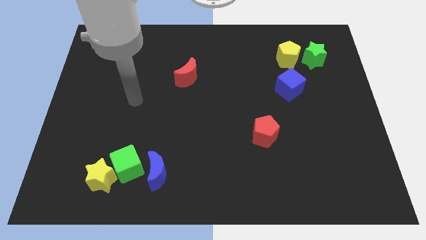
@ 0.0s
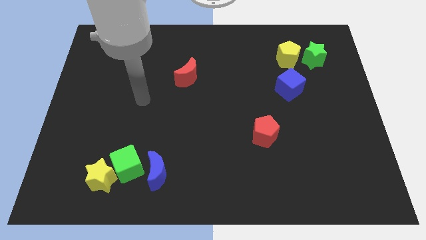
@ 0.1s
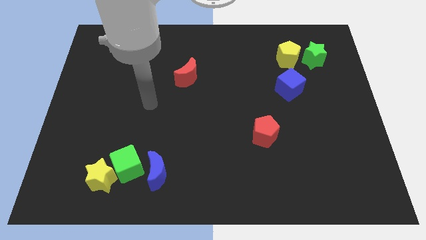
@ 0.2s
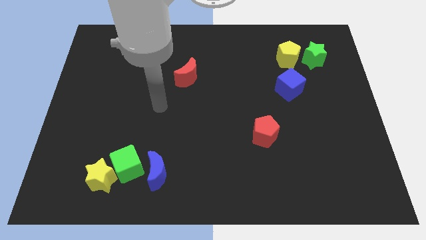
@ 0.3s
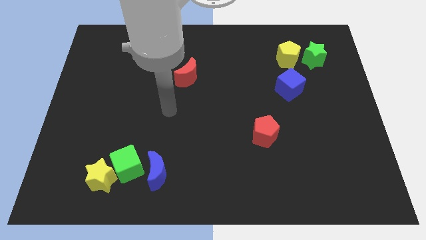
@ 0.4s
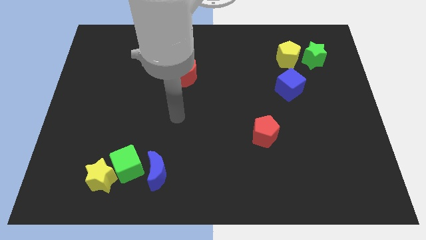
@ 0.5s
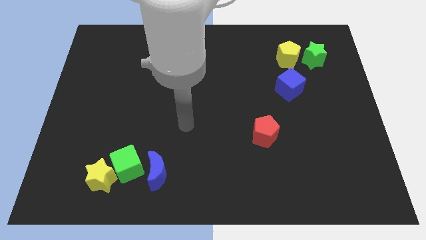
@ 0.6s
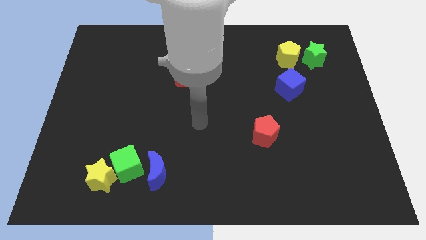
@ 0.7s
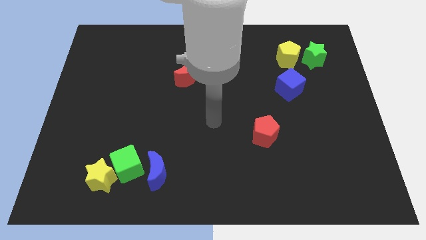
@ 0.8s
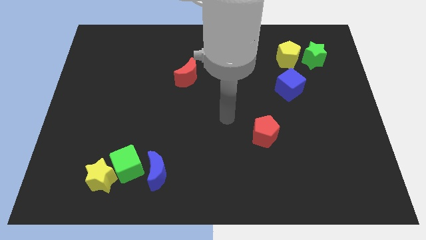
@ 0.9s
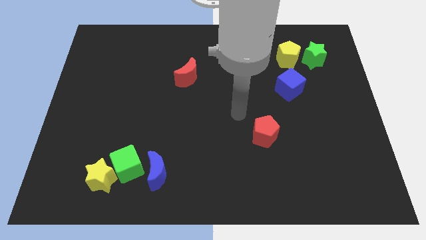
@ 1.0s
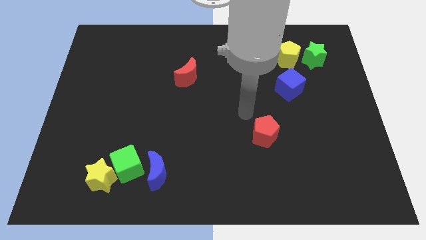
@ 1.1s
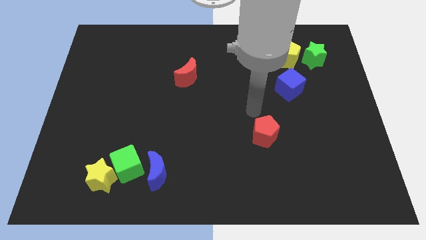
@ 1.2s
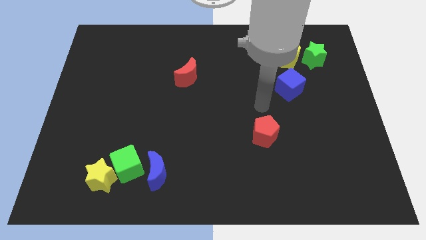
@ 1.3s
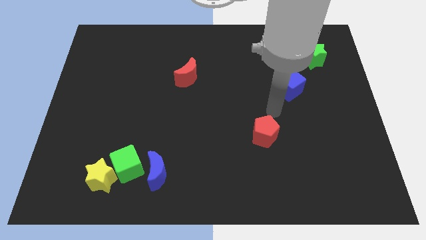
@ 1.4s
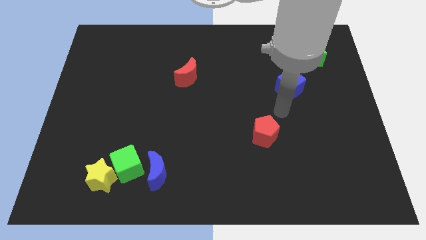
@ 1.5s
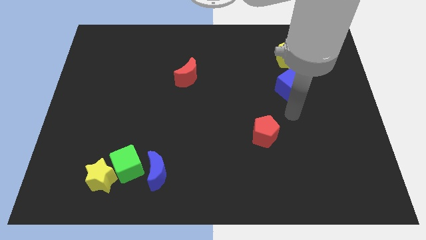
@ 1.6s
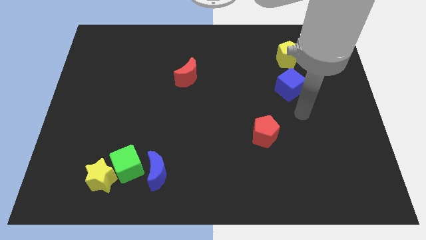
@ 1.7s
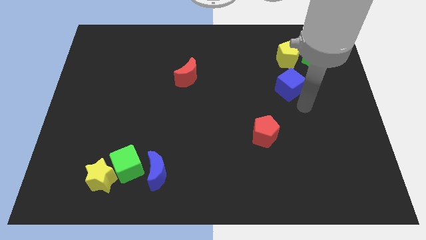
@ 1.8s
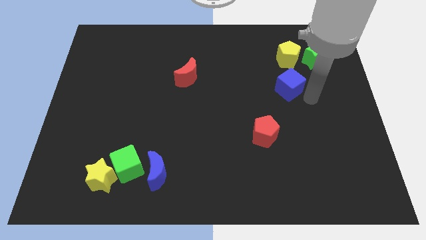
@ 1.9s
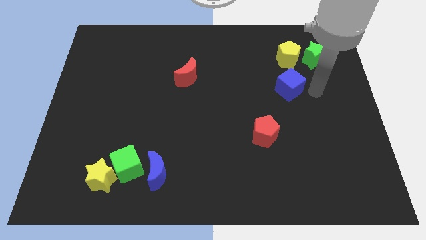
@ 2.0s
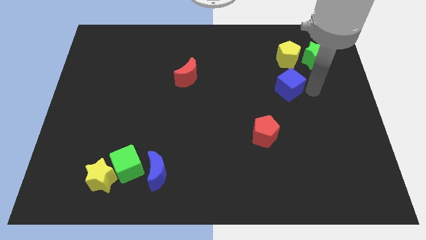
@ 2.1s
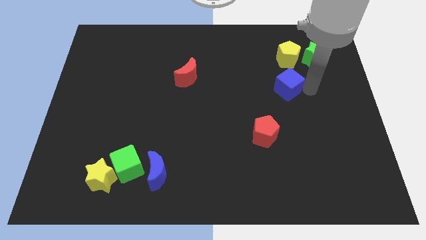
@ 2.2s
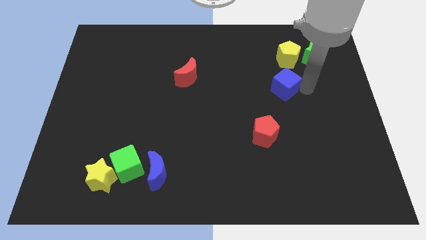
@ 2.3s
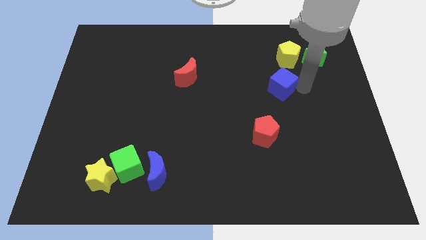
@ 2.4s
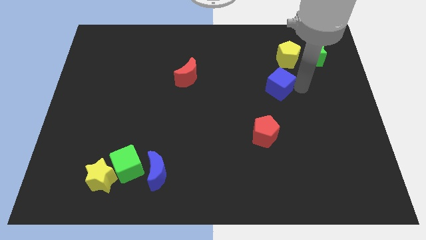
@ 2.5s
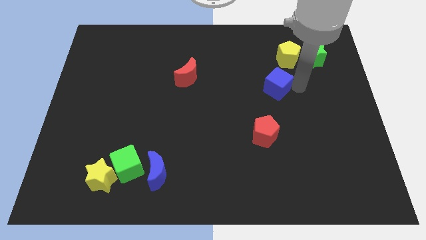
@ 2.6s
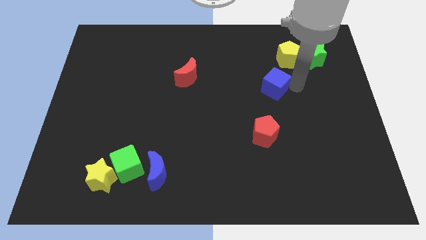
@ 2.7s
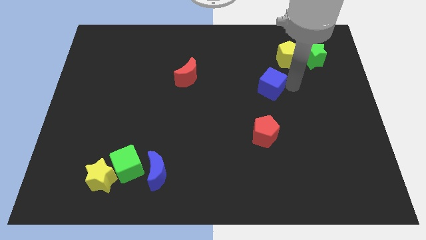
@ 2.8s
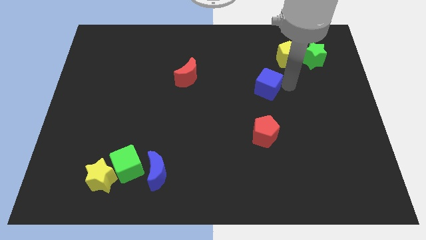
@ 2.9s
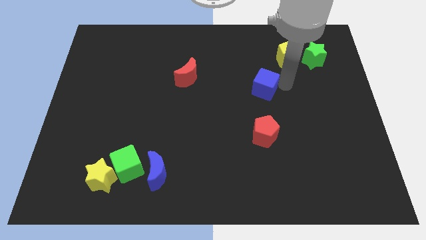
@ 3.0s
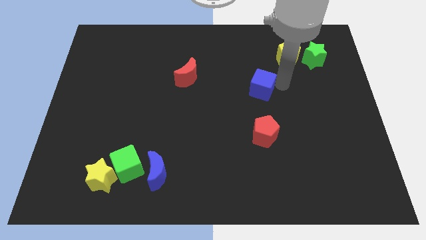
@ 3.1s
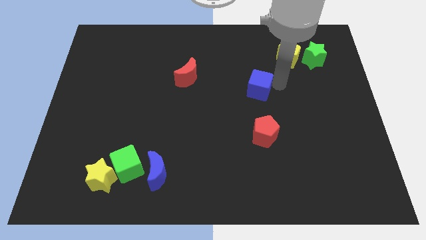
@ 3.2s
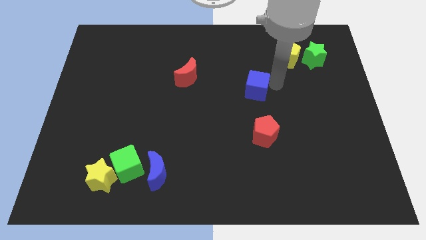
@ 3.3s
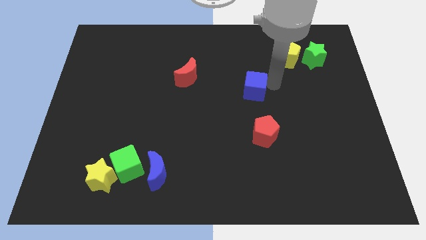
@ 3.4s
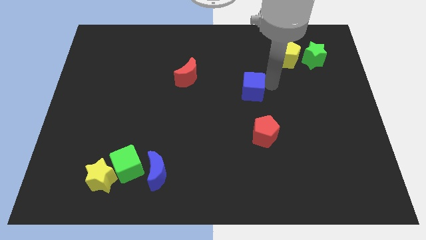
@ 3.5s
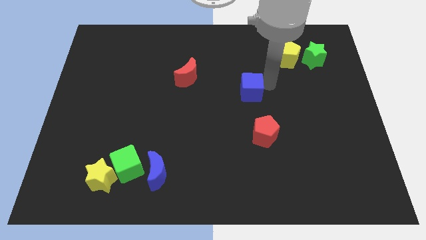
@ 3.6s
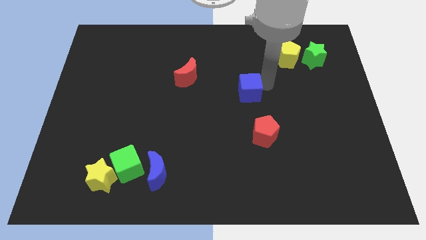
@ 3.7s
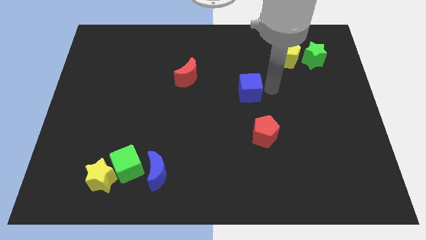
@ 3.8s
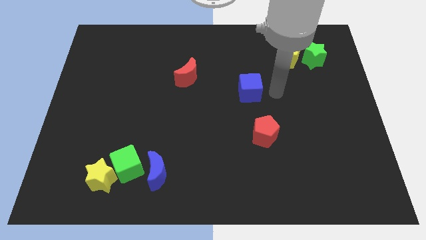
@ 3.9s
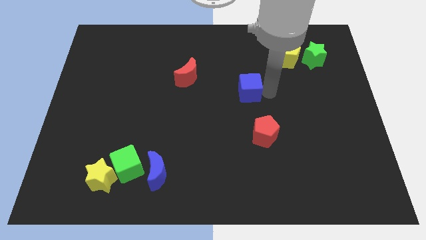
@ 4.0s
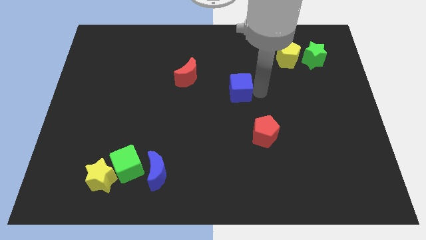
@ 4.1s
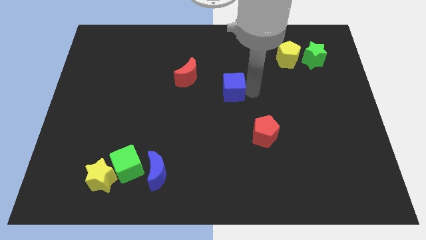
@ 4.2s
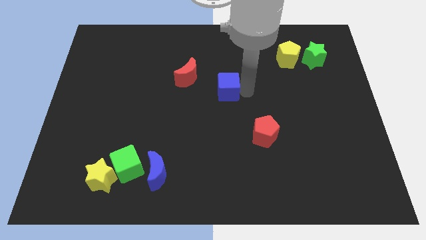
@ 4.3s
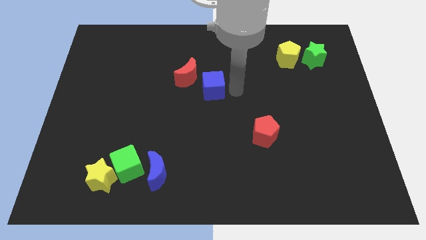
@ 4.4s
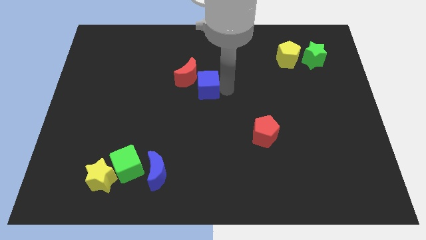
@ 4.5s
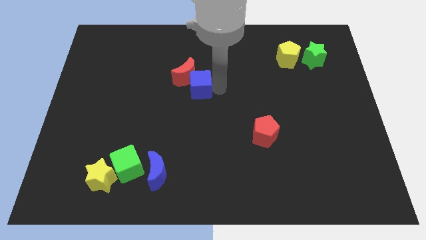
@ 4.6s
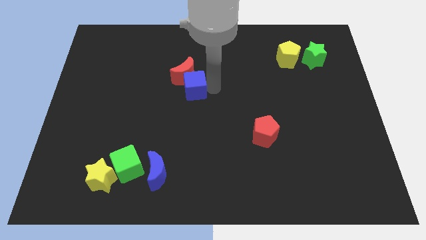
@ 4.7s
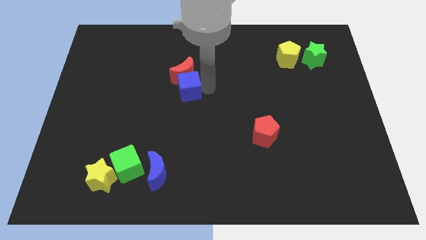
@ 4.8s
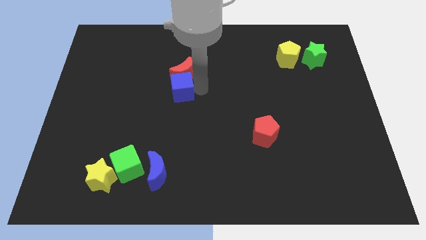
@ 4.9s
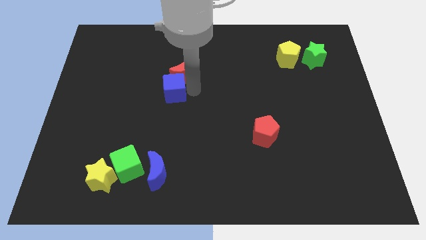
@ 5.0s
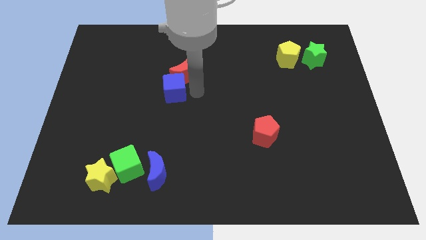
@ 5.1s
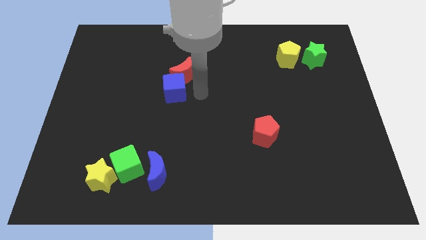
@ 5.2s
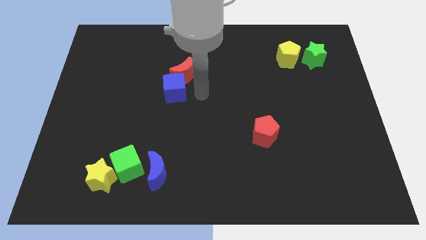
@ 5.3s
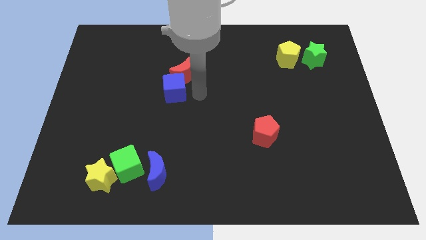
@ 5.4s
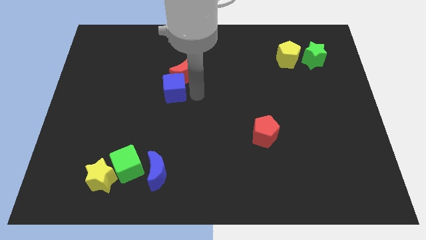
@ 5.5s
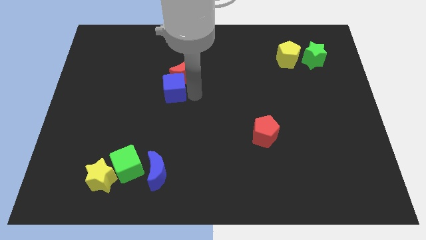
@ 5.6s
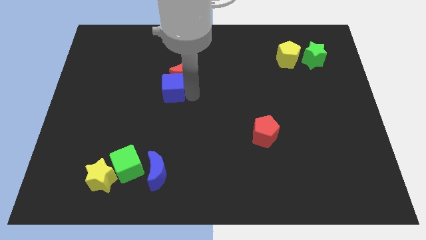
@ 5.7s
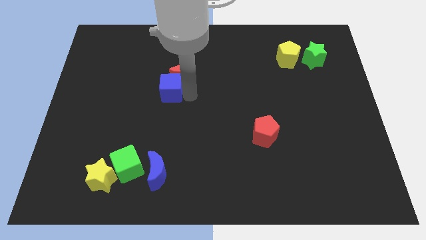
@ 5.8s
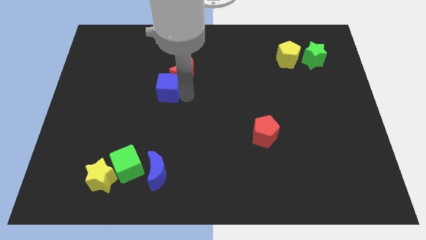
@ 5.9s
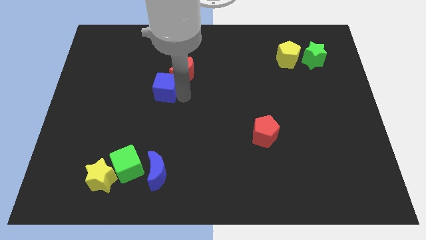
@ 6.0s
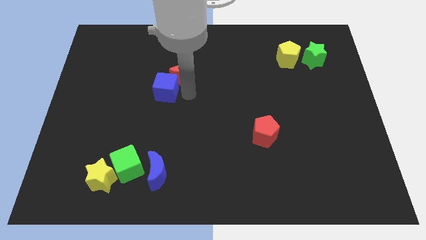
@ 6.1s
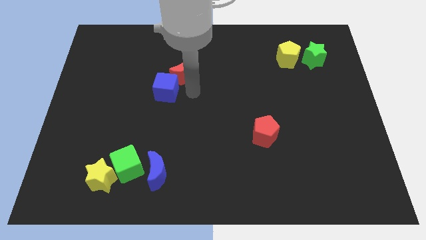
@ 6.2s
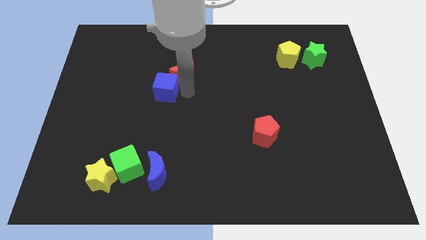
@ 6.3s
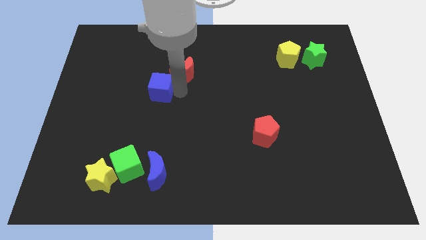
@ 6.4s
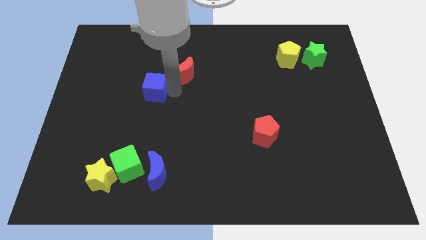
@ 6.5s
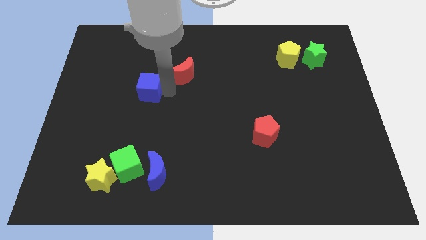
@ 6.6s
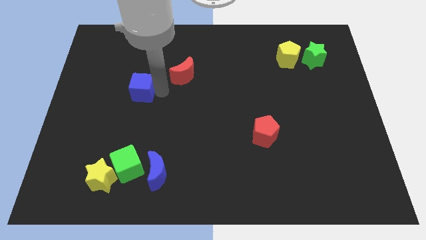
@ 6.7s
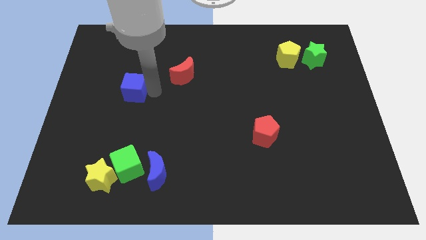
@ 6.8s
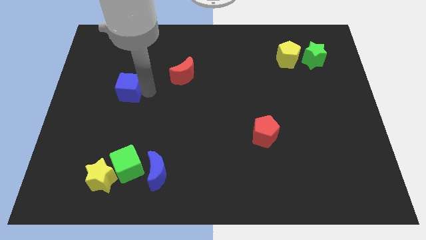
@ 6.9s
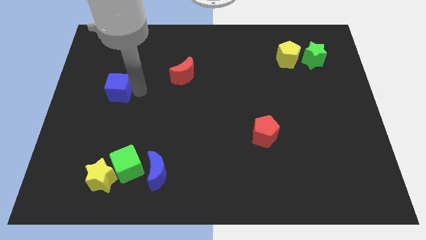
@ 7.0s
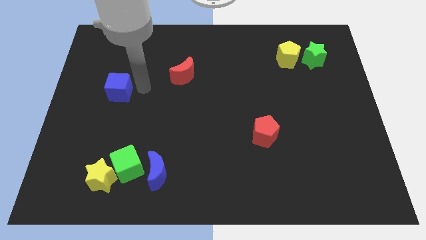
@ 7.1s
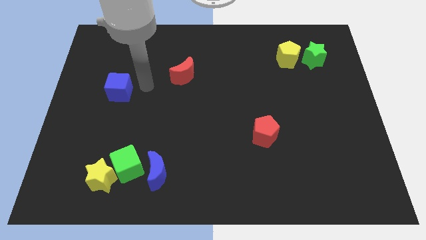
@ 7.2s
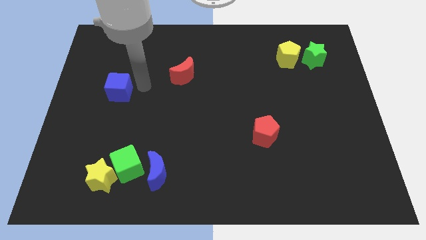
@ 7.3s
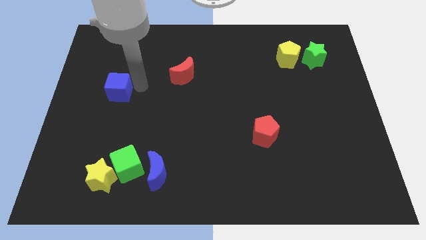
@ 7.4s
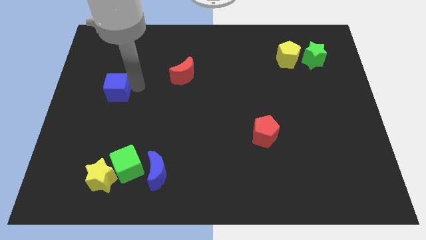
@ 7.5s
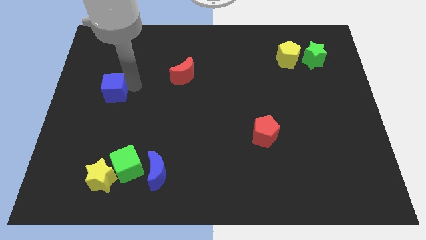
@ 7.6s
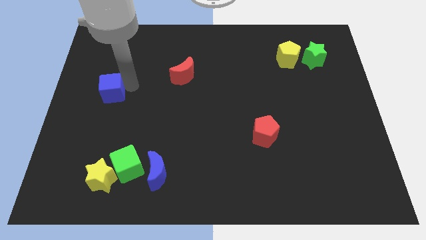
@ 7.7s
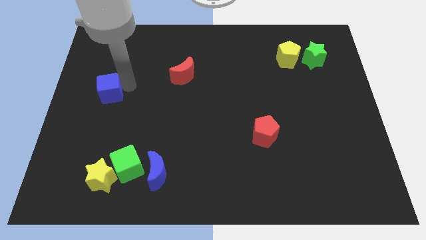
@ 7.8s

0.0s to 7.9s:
push the blue cube to the left side of the board
